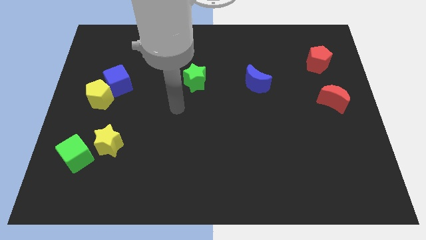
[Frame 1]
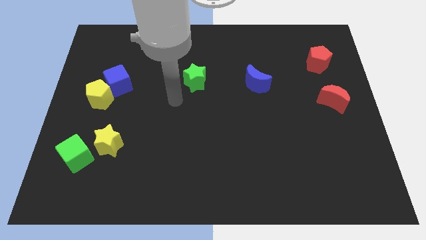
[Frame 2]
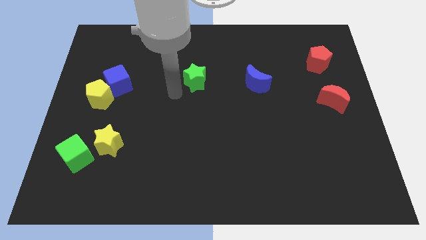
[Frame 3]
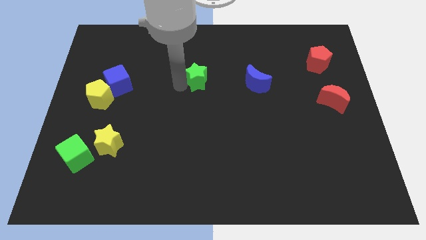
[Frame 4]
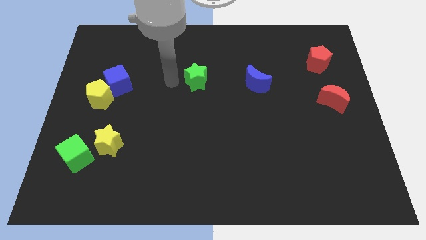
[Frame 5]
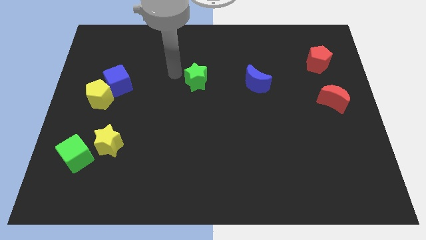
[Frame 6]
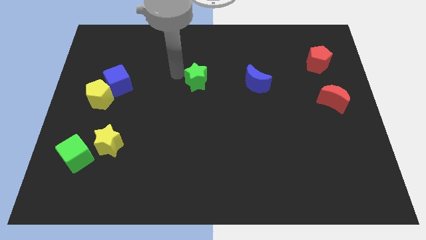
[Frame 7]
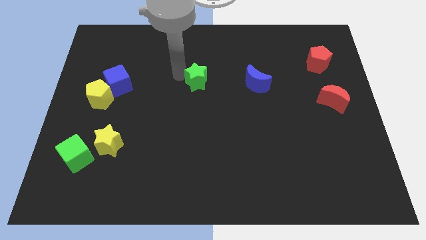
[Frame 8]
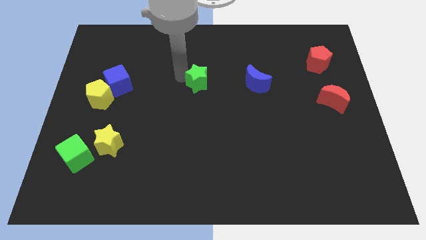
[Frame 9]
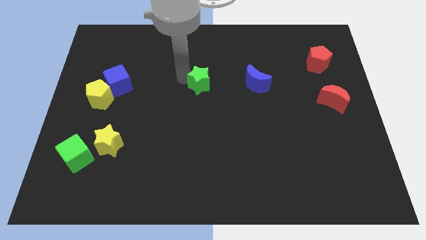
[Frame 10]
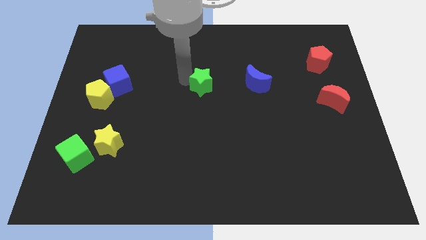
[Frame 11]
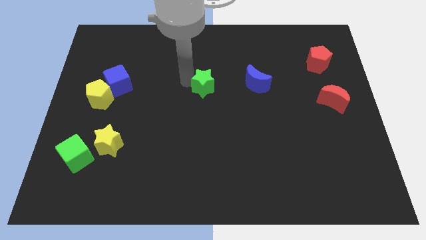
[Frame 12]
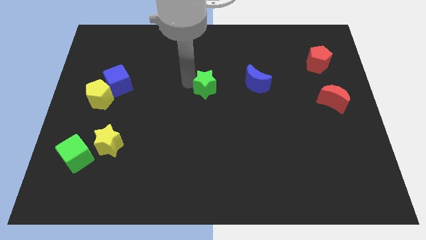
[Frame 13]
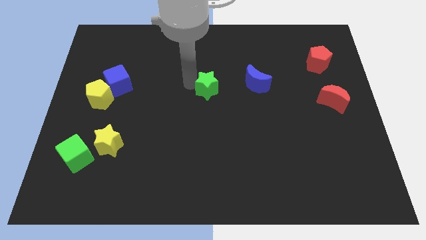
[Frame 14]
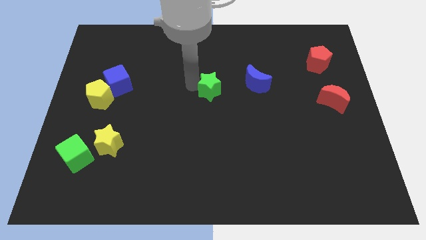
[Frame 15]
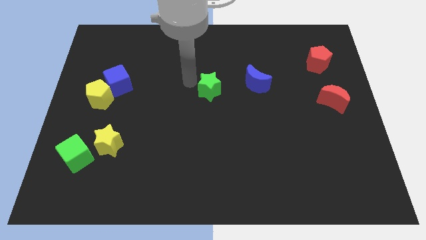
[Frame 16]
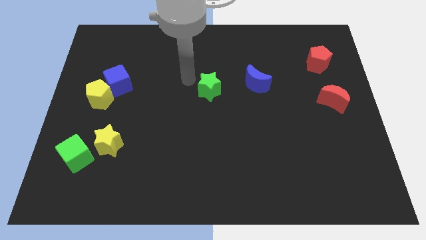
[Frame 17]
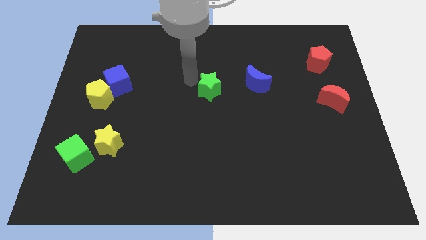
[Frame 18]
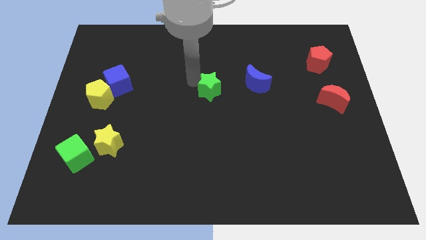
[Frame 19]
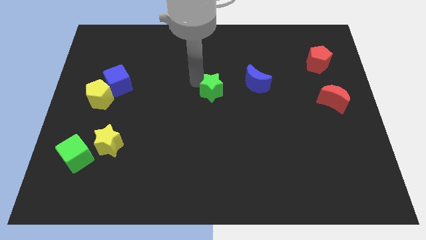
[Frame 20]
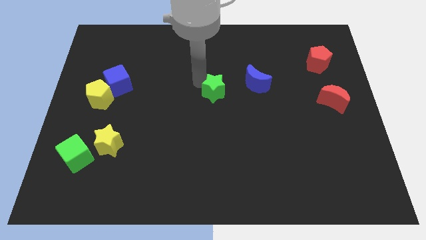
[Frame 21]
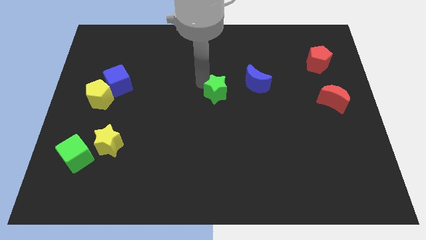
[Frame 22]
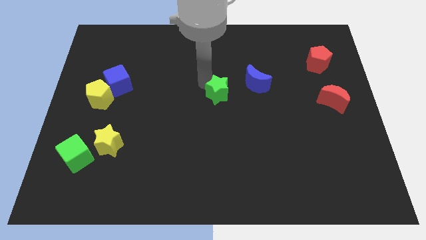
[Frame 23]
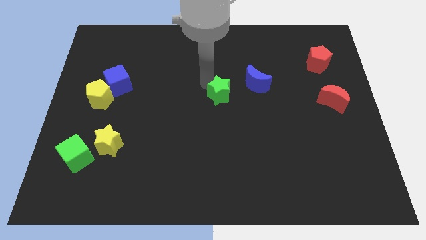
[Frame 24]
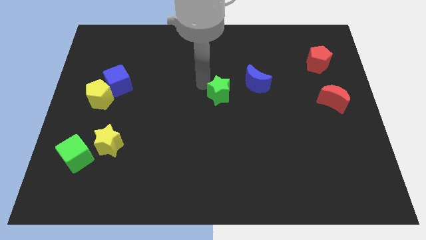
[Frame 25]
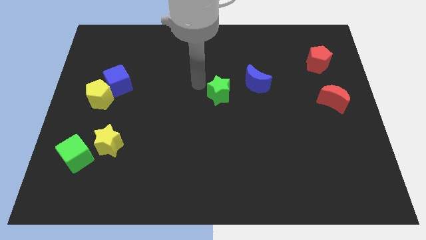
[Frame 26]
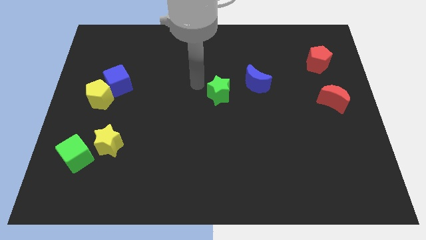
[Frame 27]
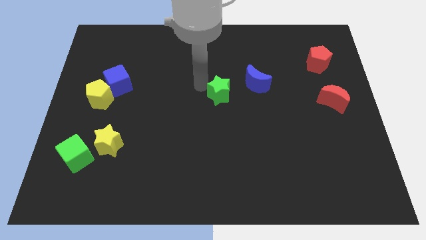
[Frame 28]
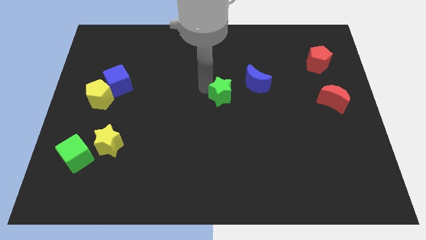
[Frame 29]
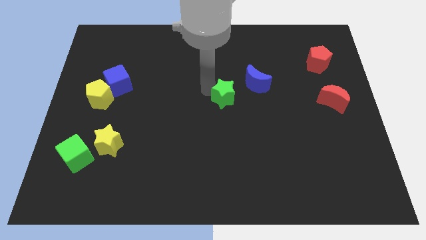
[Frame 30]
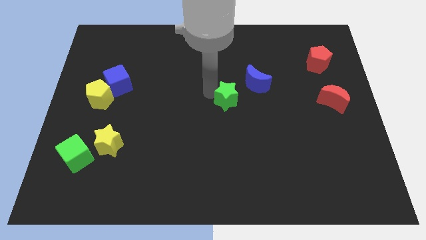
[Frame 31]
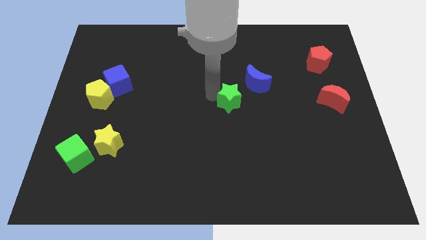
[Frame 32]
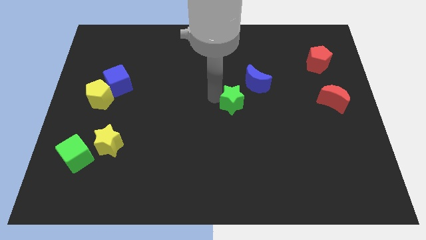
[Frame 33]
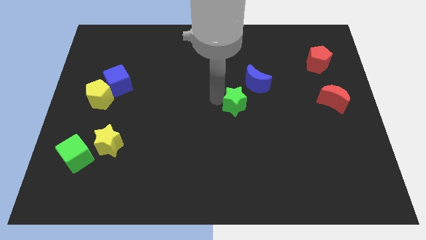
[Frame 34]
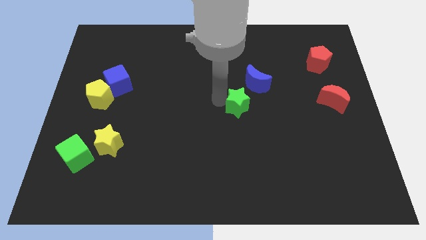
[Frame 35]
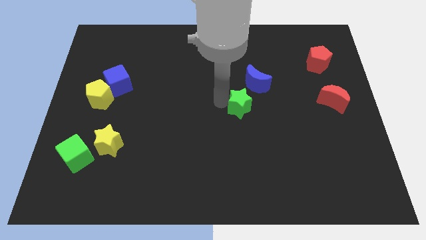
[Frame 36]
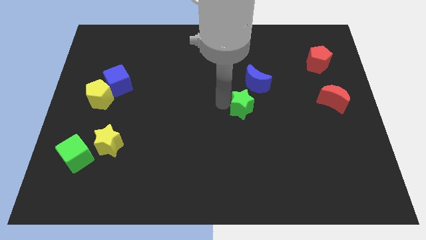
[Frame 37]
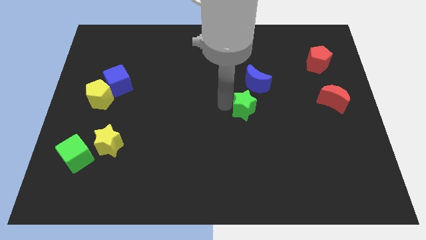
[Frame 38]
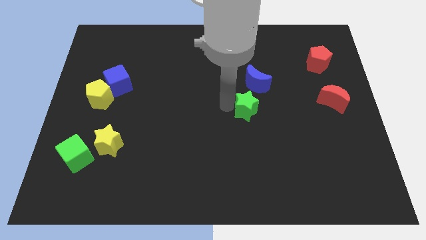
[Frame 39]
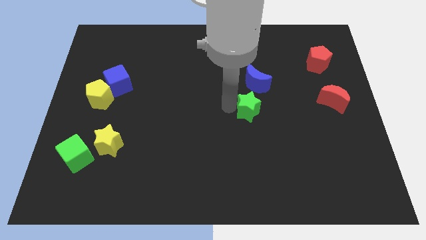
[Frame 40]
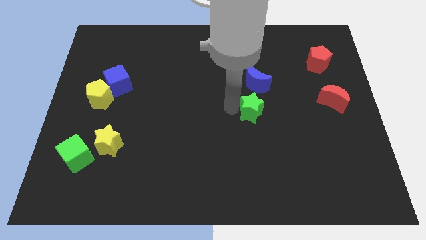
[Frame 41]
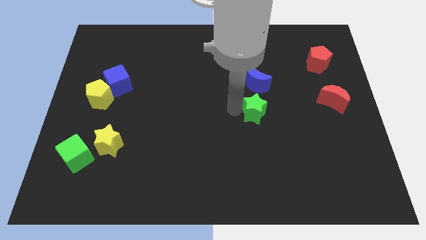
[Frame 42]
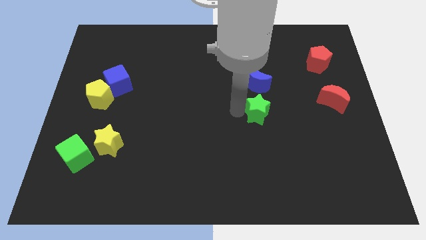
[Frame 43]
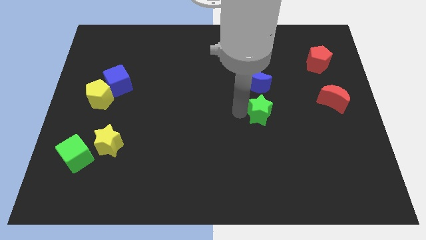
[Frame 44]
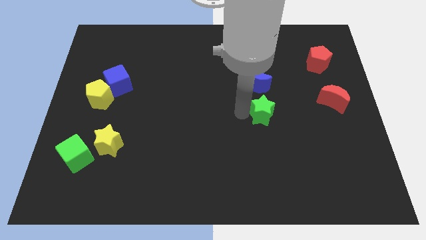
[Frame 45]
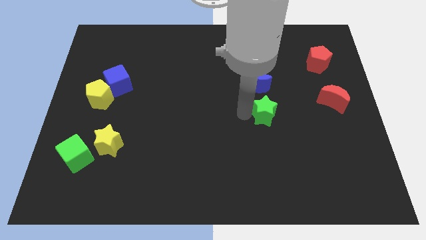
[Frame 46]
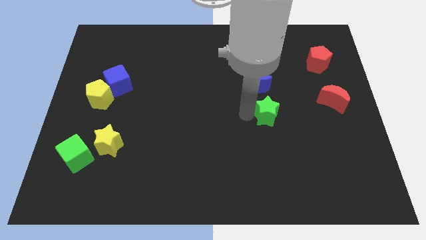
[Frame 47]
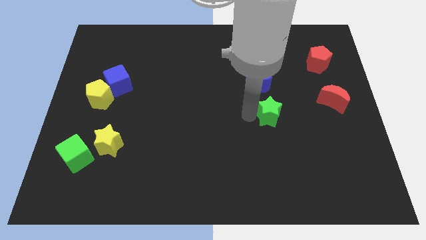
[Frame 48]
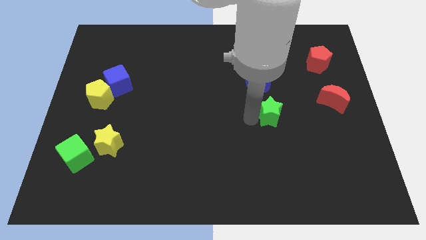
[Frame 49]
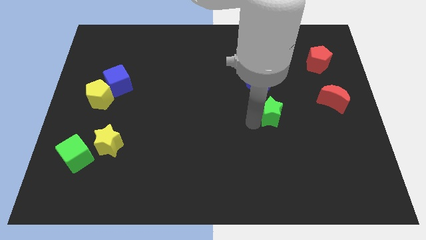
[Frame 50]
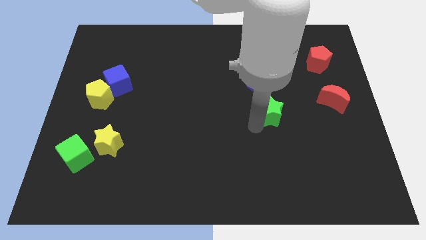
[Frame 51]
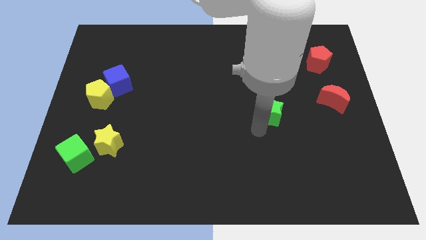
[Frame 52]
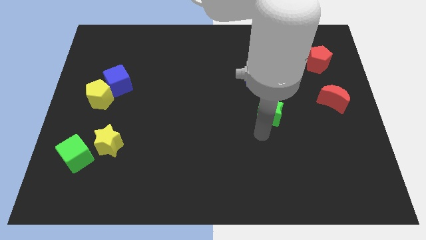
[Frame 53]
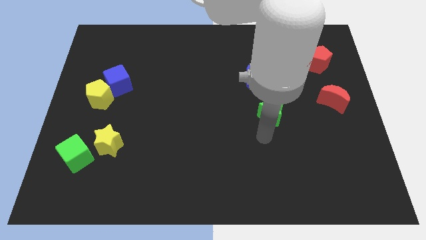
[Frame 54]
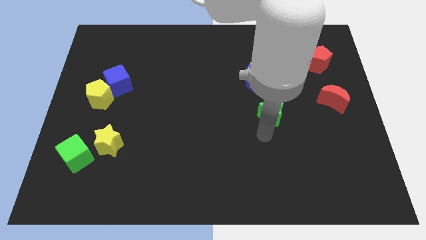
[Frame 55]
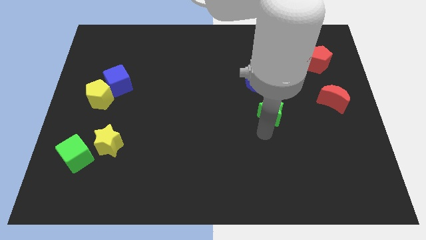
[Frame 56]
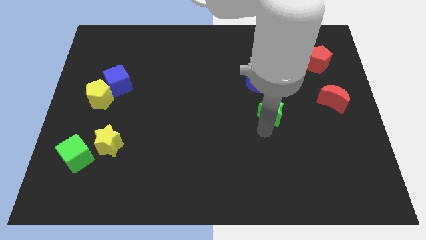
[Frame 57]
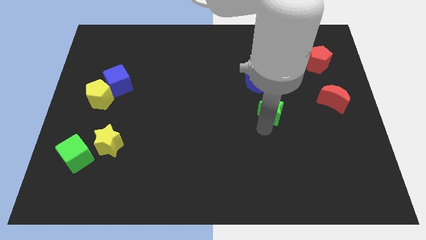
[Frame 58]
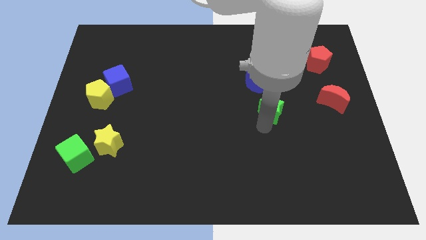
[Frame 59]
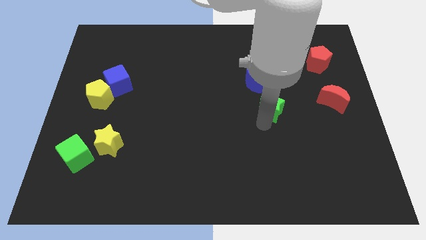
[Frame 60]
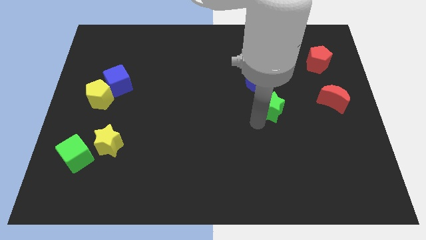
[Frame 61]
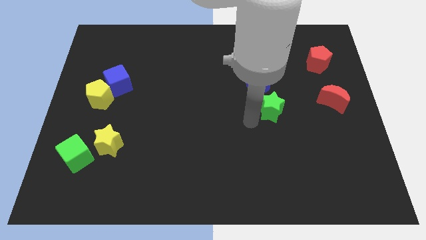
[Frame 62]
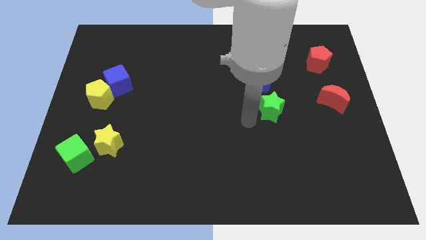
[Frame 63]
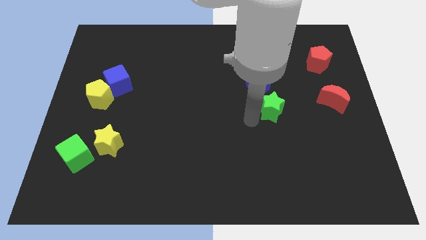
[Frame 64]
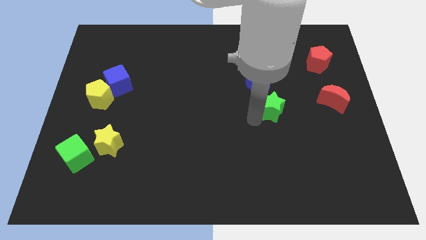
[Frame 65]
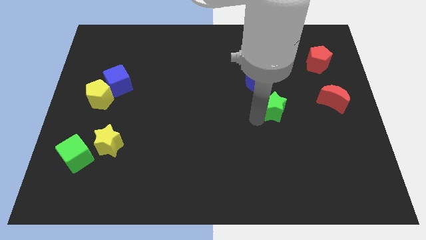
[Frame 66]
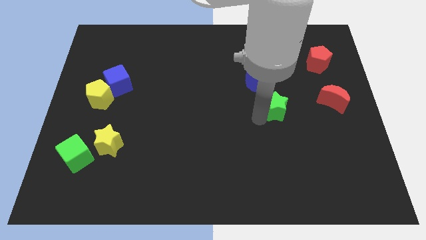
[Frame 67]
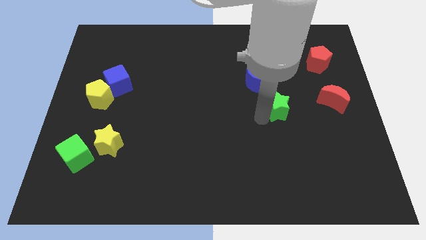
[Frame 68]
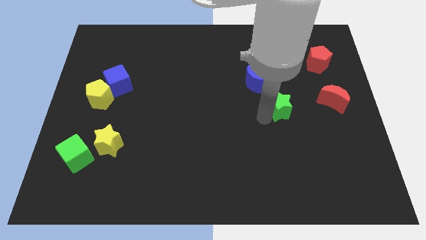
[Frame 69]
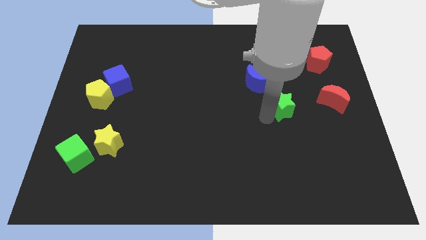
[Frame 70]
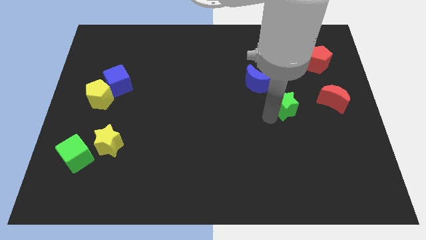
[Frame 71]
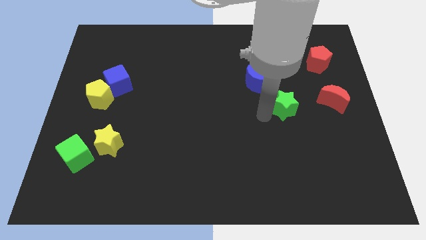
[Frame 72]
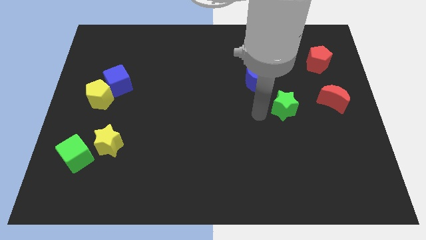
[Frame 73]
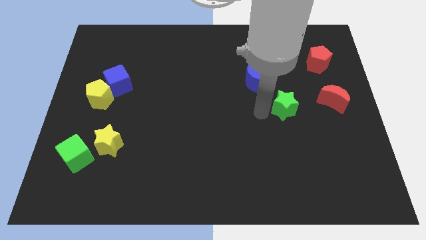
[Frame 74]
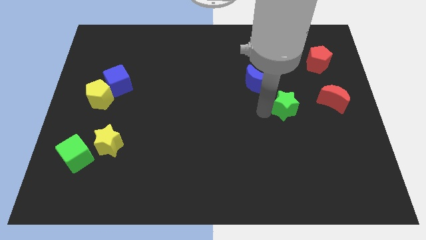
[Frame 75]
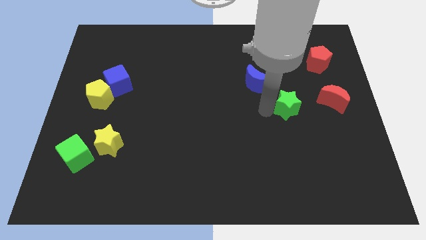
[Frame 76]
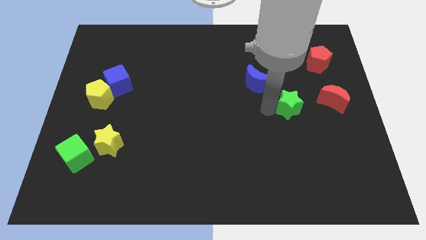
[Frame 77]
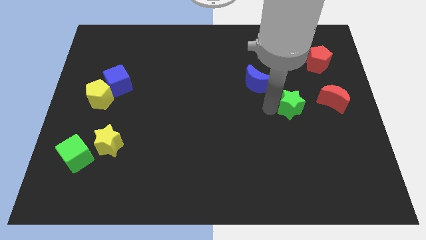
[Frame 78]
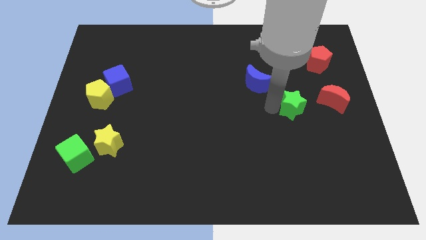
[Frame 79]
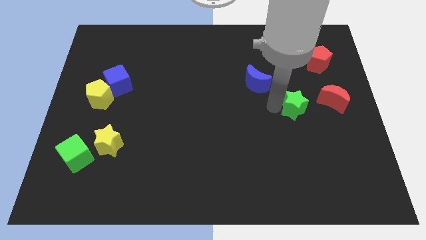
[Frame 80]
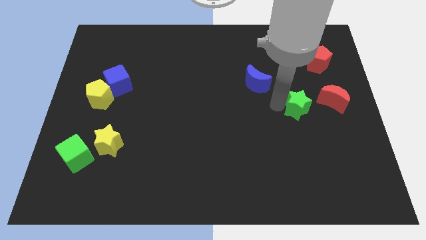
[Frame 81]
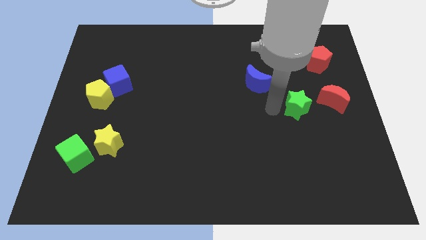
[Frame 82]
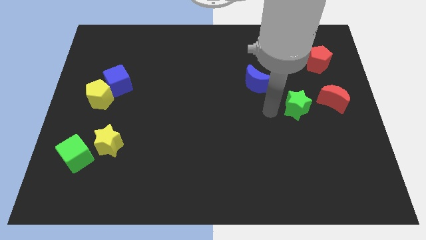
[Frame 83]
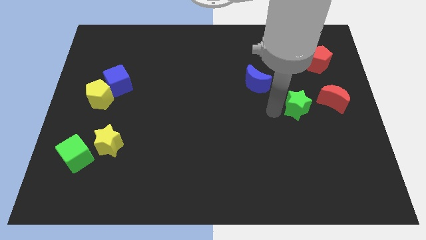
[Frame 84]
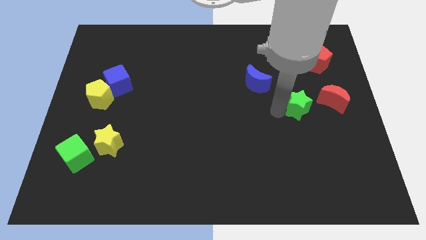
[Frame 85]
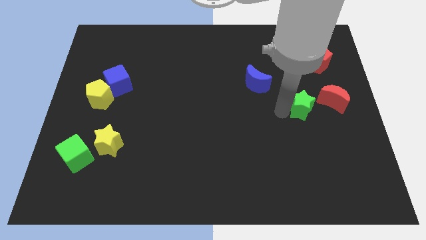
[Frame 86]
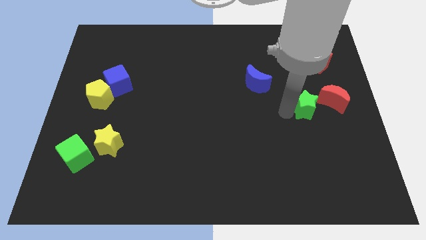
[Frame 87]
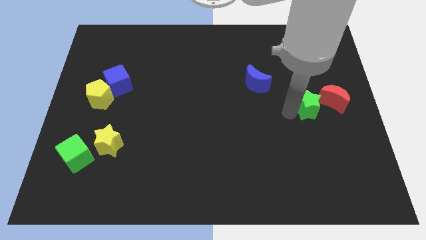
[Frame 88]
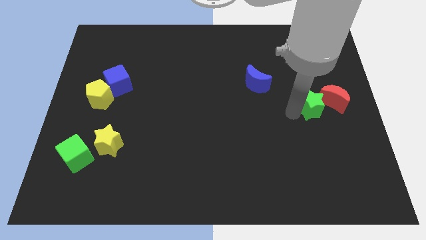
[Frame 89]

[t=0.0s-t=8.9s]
push the green star close to the red moon
